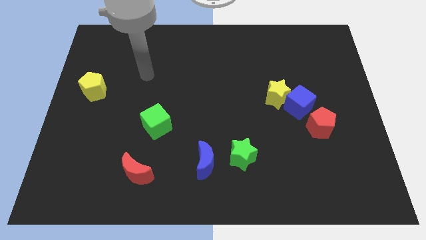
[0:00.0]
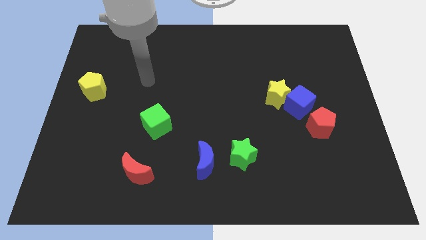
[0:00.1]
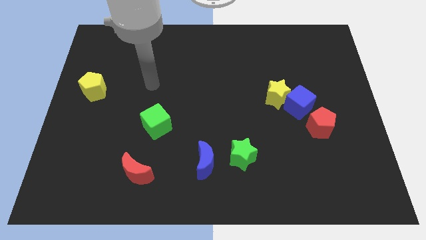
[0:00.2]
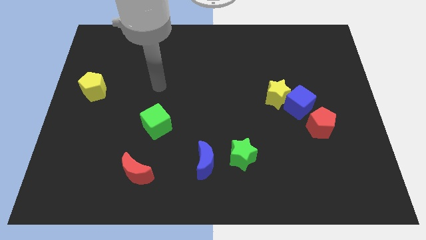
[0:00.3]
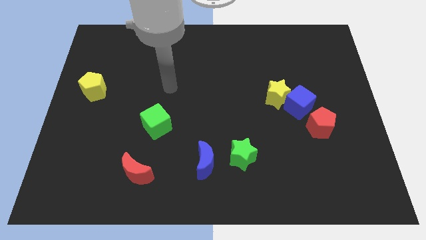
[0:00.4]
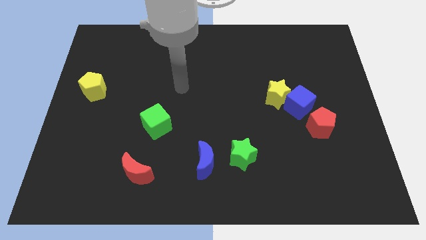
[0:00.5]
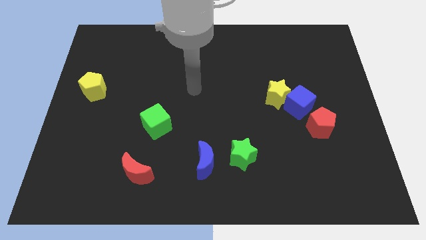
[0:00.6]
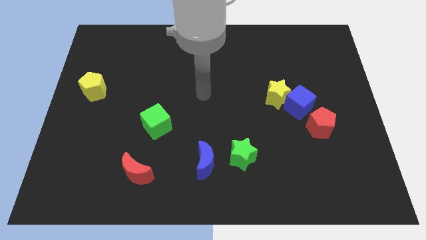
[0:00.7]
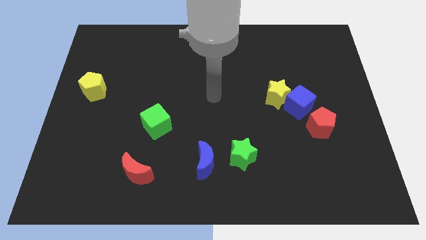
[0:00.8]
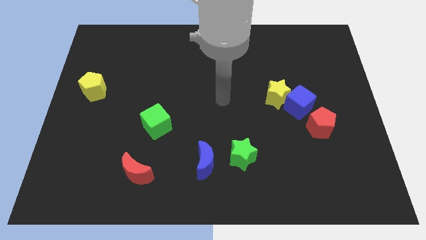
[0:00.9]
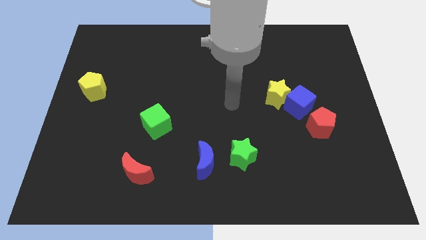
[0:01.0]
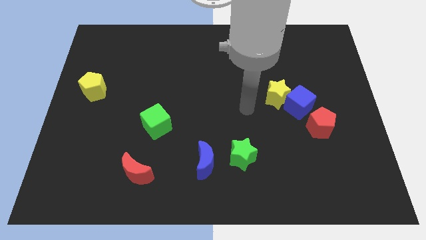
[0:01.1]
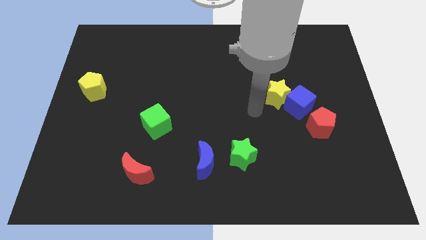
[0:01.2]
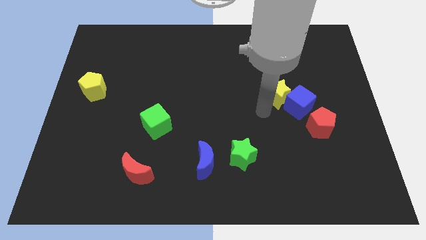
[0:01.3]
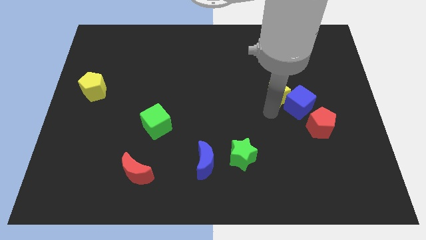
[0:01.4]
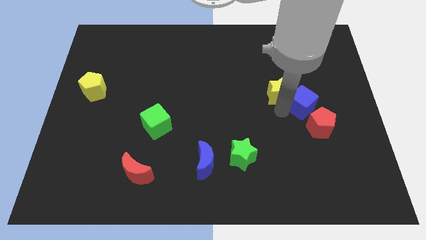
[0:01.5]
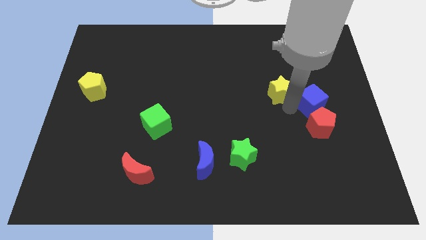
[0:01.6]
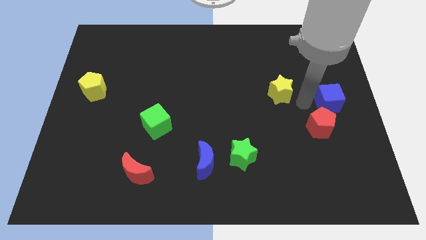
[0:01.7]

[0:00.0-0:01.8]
pull the yellow star apart from the blue cube

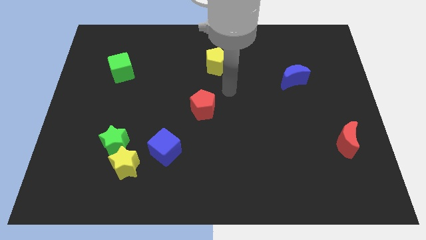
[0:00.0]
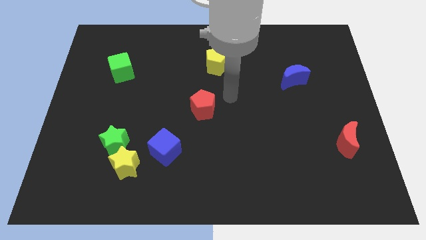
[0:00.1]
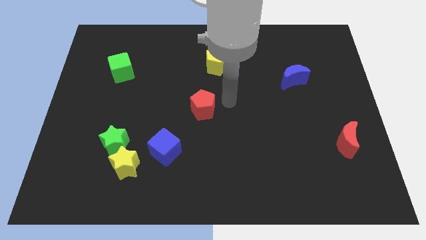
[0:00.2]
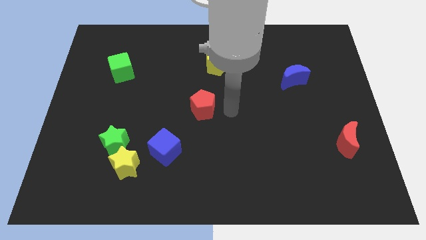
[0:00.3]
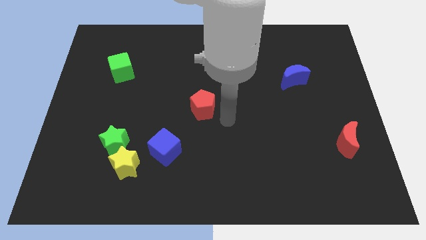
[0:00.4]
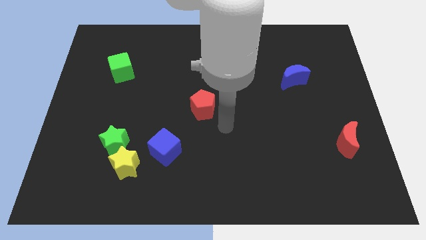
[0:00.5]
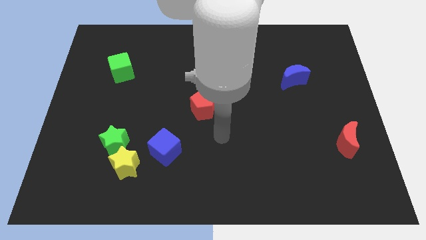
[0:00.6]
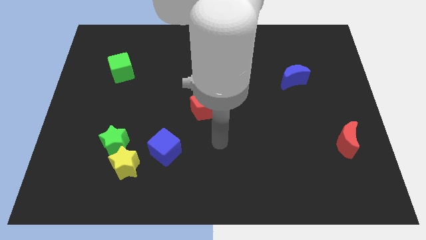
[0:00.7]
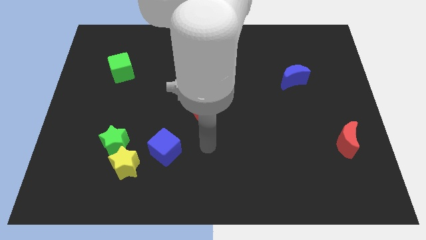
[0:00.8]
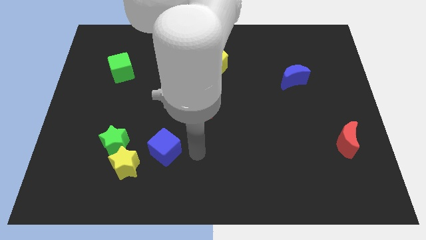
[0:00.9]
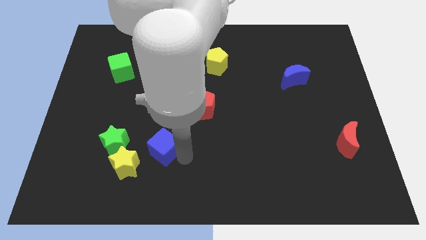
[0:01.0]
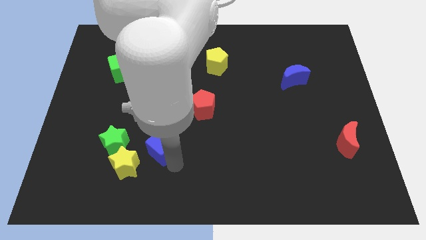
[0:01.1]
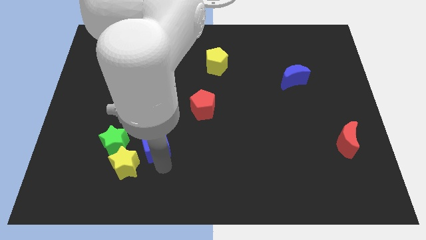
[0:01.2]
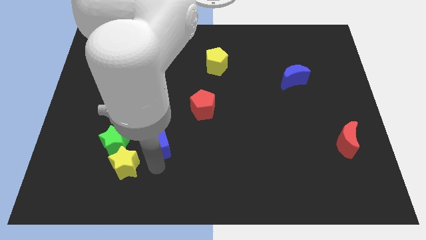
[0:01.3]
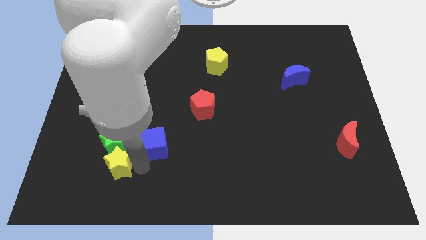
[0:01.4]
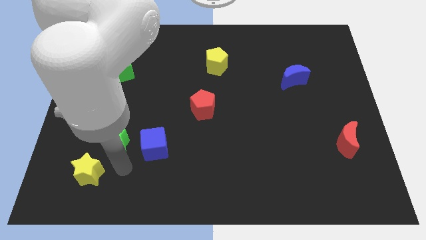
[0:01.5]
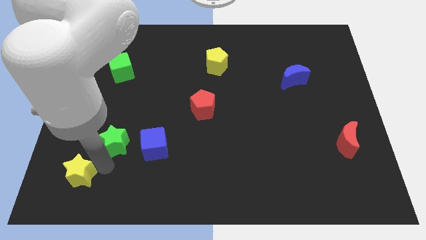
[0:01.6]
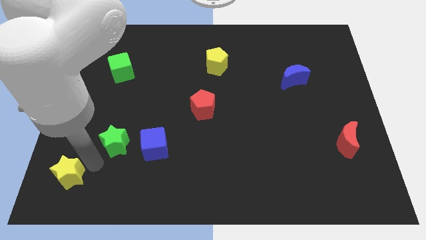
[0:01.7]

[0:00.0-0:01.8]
move the green star away from the yellow star

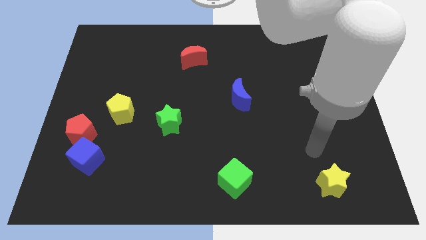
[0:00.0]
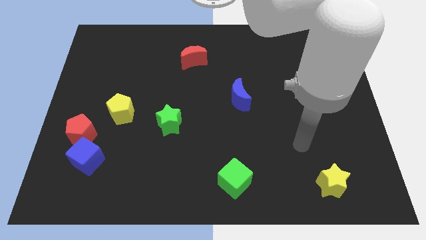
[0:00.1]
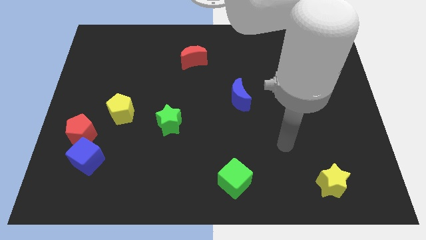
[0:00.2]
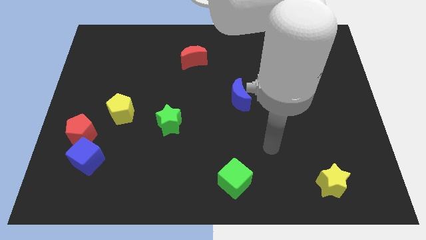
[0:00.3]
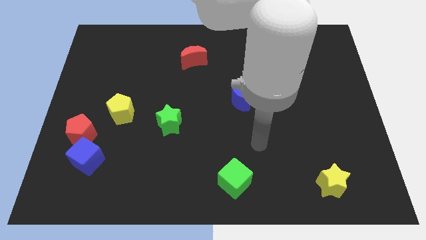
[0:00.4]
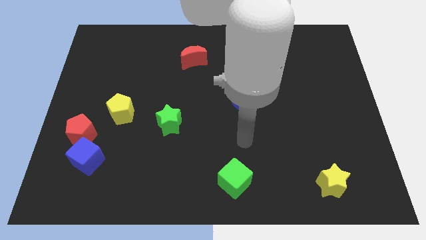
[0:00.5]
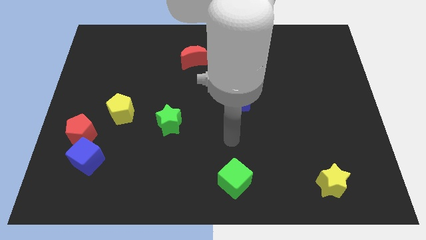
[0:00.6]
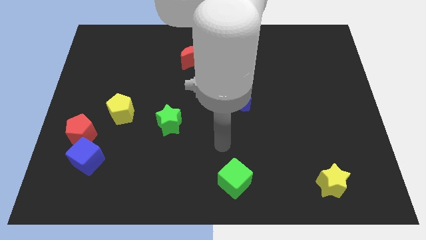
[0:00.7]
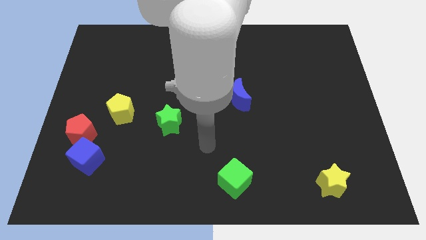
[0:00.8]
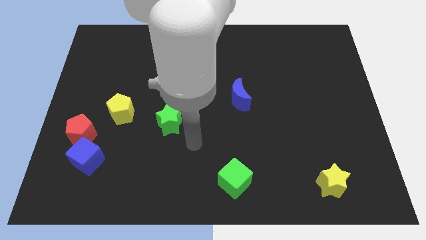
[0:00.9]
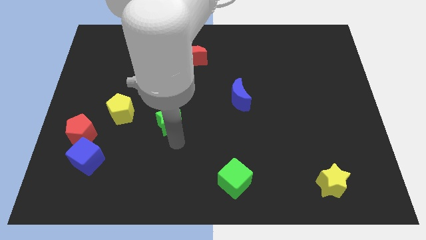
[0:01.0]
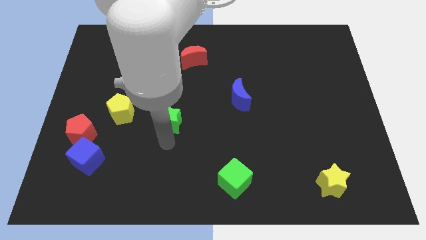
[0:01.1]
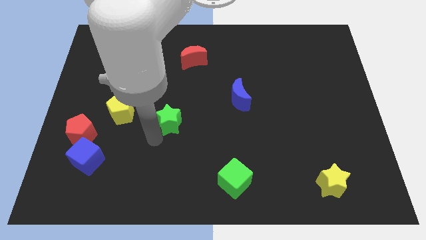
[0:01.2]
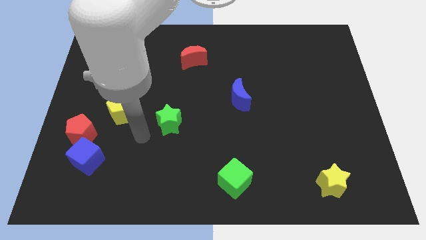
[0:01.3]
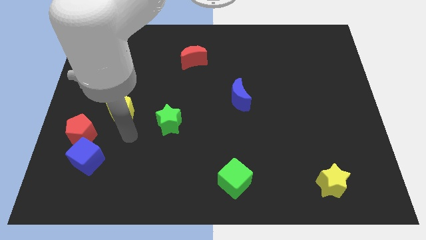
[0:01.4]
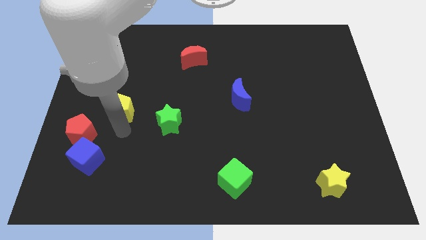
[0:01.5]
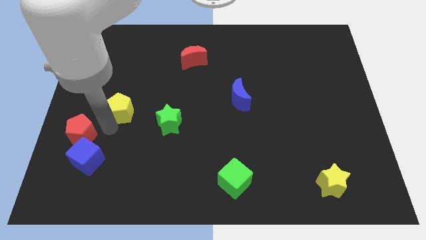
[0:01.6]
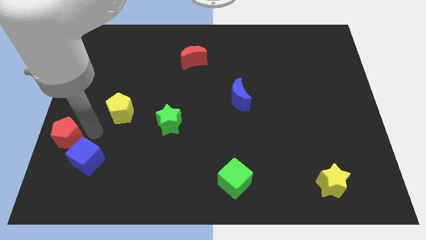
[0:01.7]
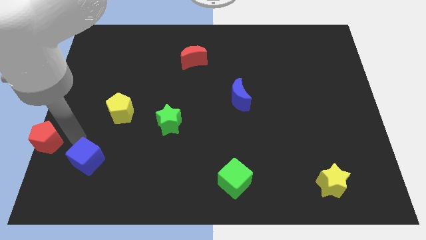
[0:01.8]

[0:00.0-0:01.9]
separate the blue cube from the red pentagon

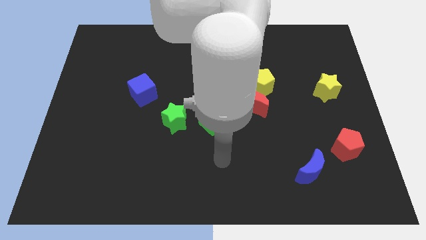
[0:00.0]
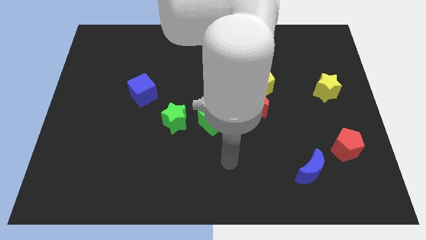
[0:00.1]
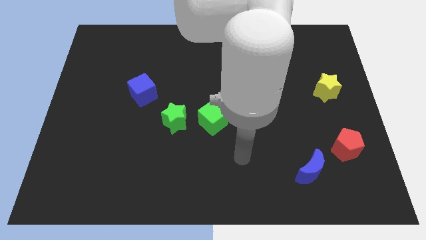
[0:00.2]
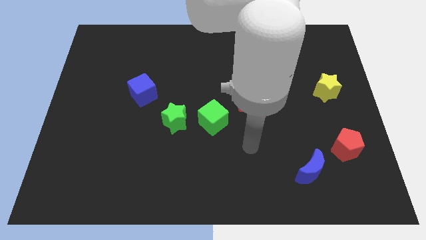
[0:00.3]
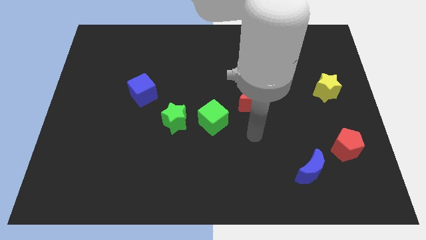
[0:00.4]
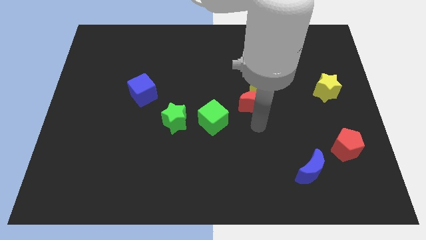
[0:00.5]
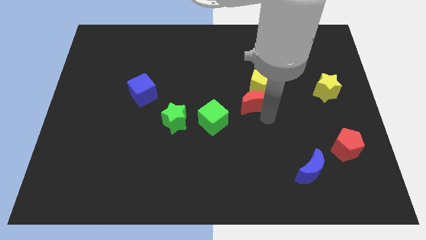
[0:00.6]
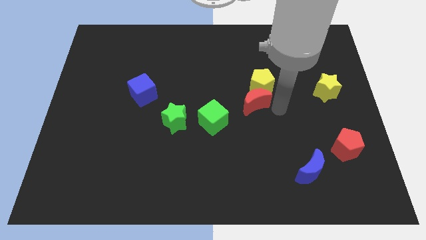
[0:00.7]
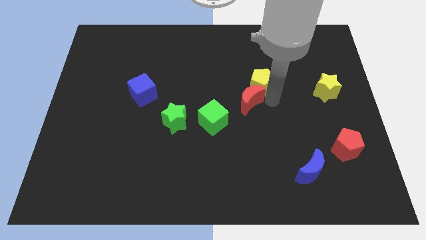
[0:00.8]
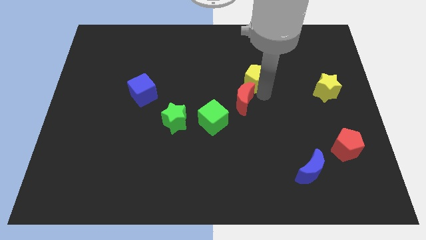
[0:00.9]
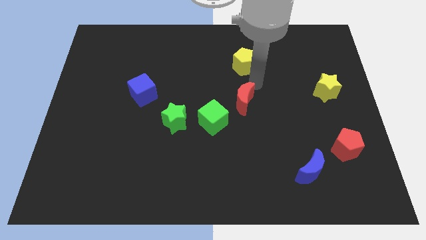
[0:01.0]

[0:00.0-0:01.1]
pull the red moon apart from the yellow pentagon

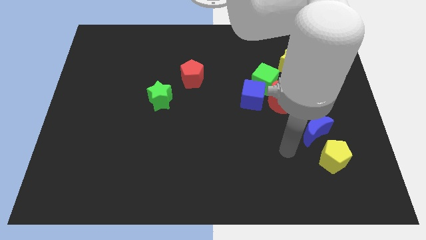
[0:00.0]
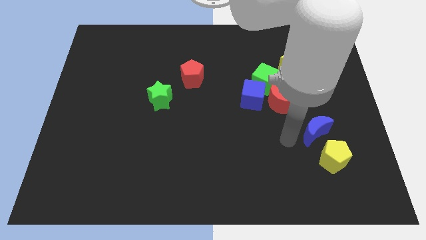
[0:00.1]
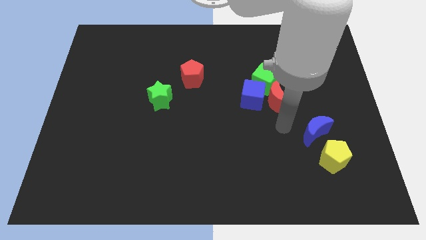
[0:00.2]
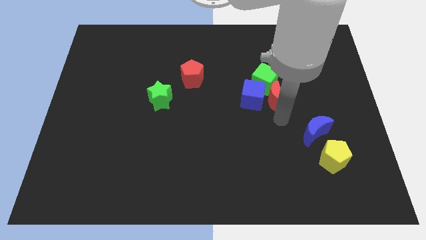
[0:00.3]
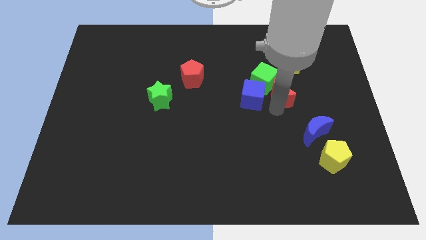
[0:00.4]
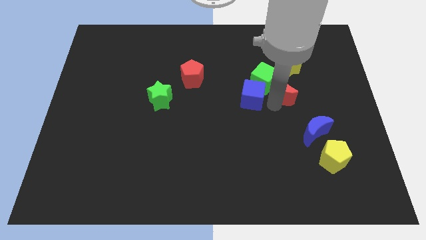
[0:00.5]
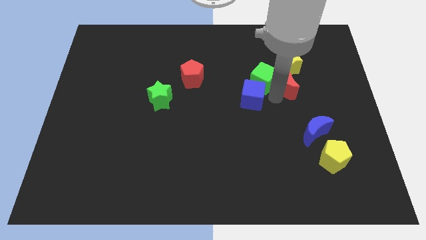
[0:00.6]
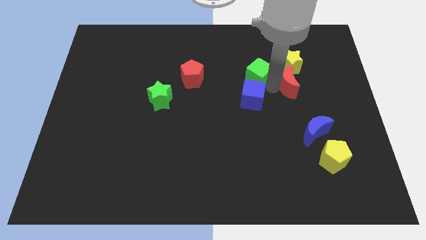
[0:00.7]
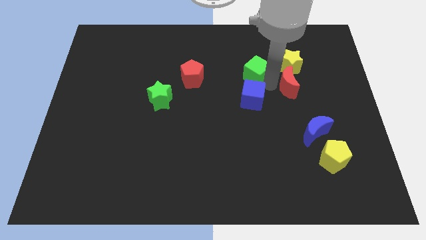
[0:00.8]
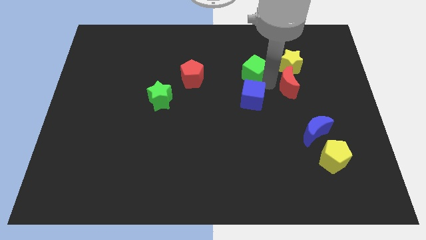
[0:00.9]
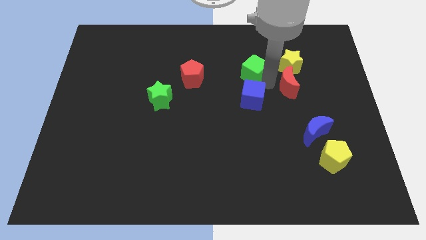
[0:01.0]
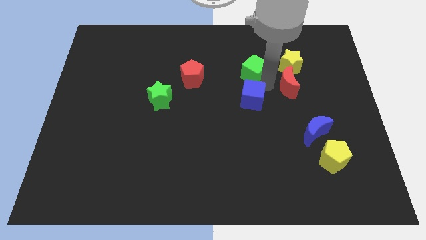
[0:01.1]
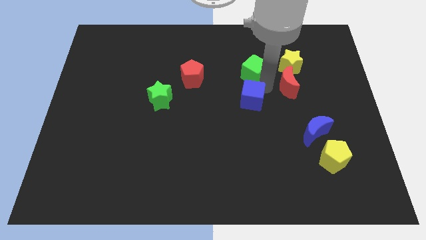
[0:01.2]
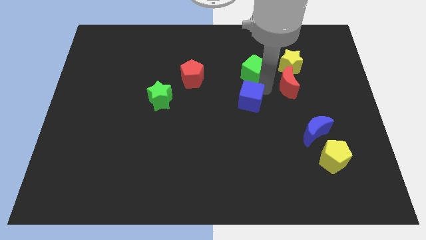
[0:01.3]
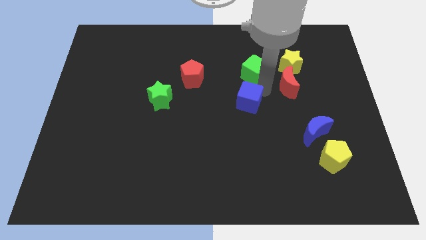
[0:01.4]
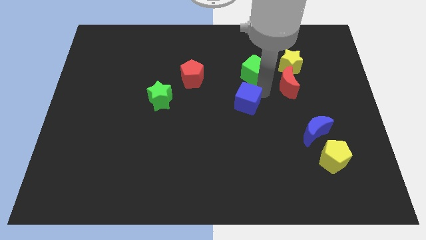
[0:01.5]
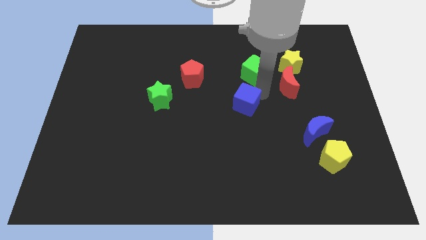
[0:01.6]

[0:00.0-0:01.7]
move the blue cube away from the red moon and green cube

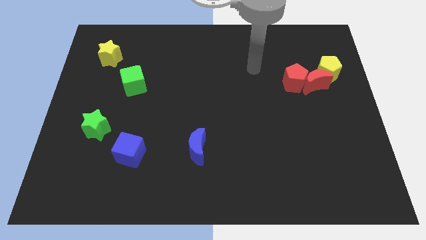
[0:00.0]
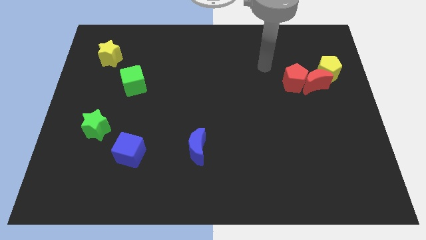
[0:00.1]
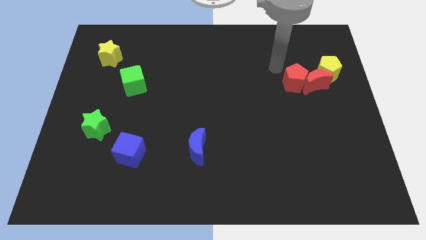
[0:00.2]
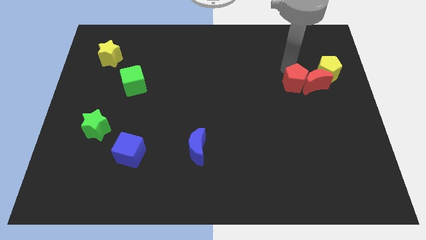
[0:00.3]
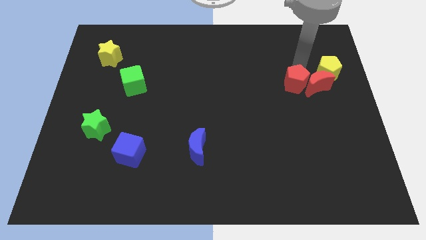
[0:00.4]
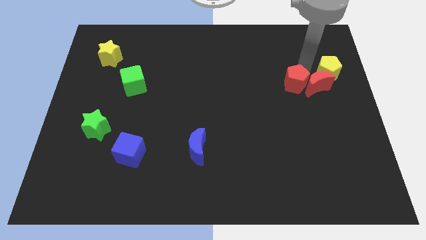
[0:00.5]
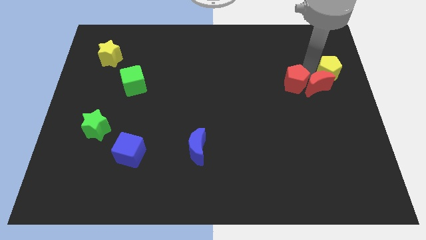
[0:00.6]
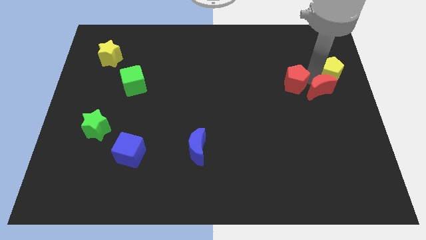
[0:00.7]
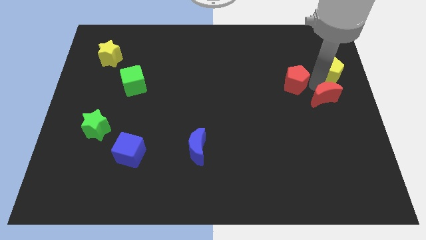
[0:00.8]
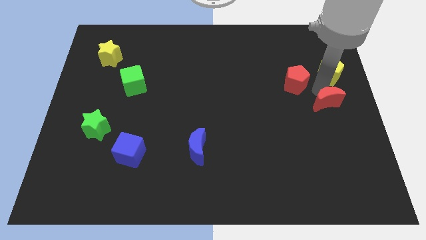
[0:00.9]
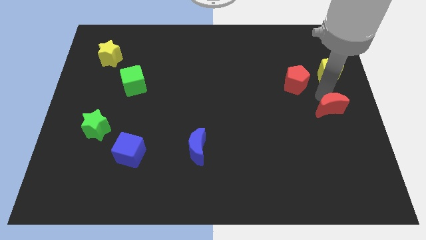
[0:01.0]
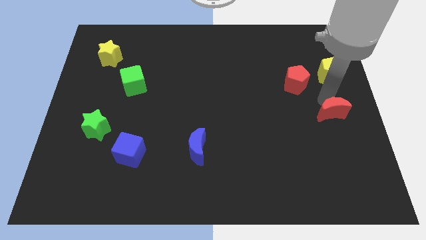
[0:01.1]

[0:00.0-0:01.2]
move the red moon away from the red pentagon and yellow pentagon
